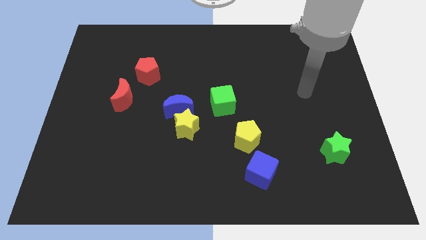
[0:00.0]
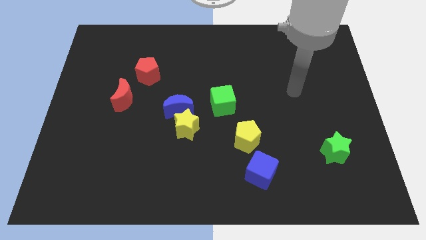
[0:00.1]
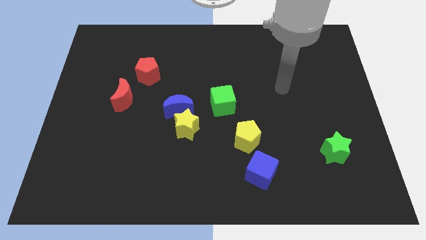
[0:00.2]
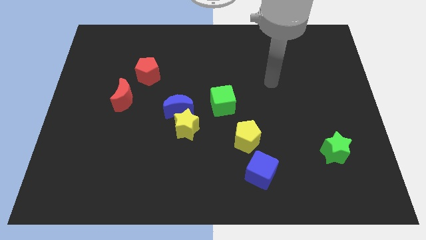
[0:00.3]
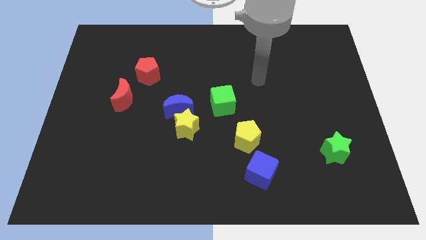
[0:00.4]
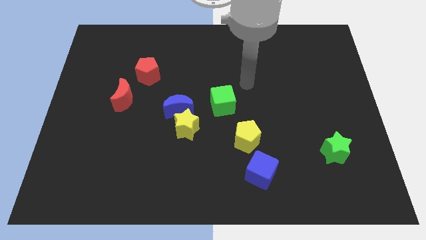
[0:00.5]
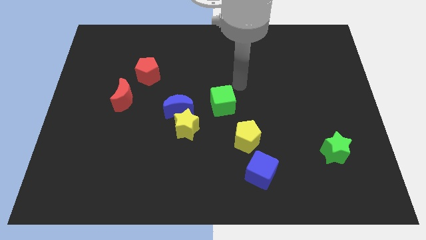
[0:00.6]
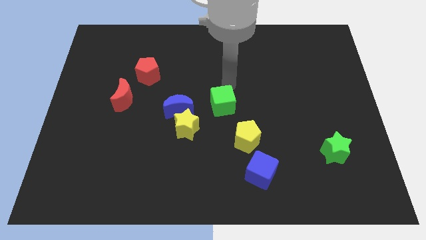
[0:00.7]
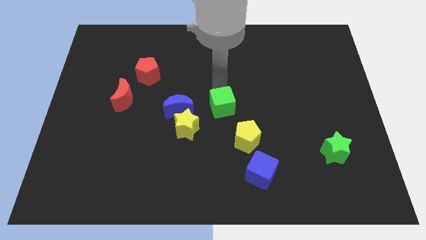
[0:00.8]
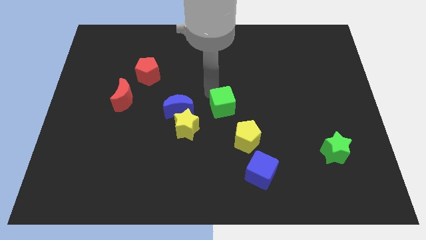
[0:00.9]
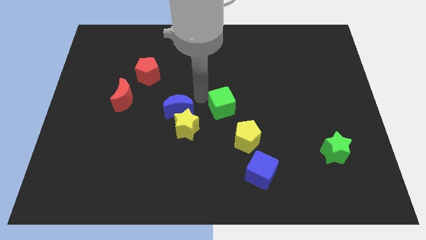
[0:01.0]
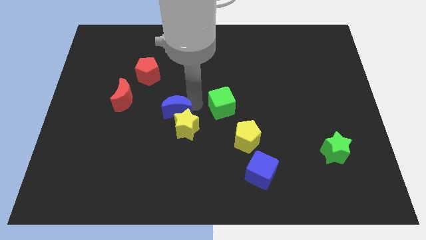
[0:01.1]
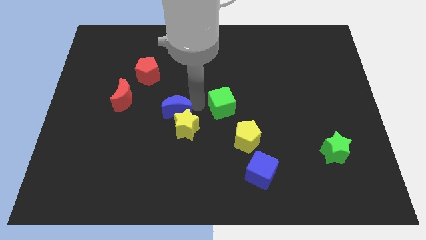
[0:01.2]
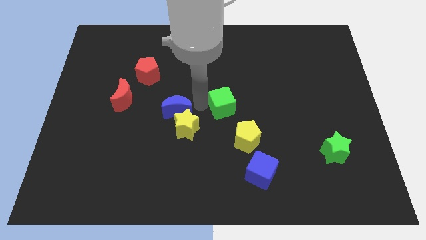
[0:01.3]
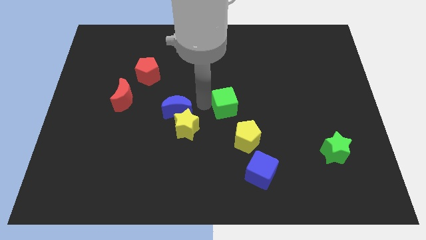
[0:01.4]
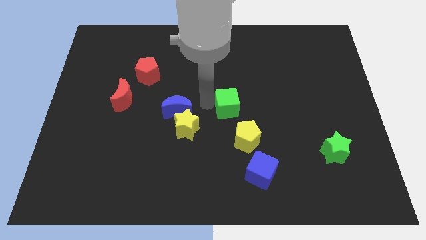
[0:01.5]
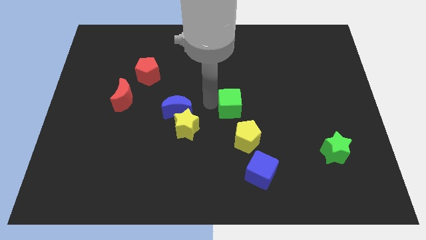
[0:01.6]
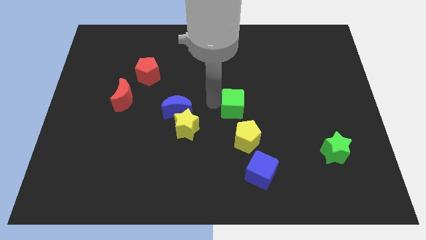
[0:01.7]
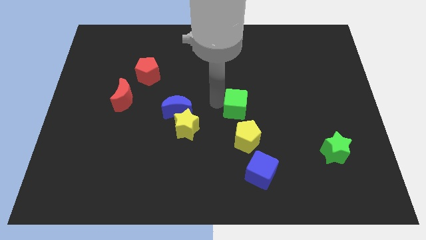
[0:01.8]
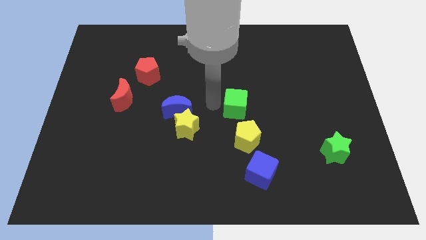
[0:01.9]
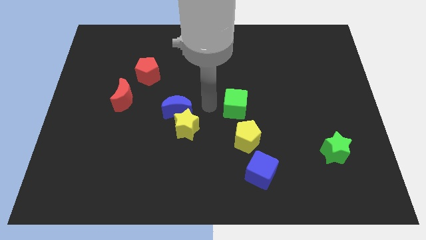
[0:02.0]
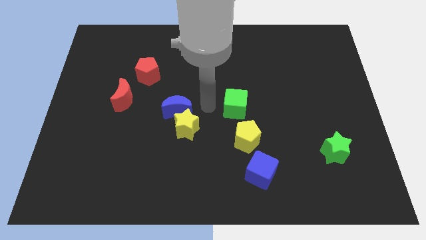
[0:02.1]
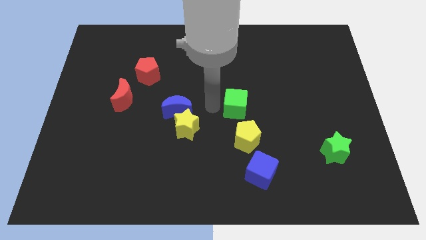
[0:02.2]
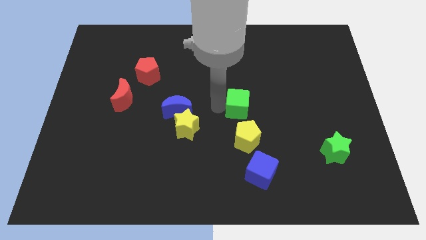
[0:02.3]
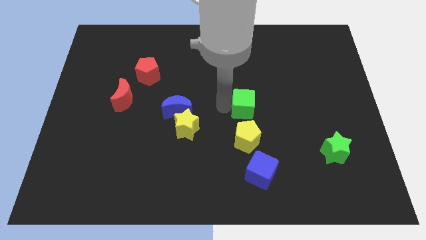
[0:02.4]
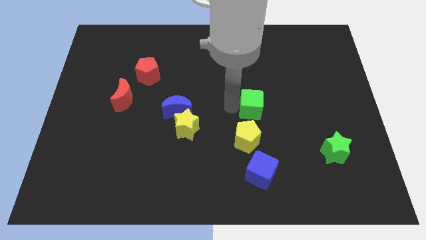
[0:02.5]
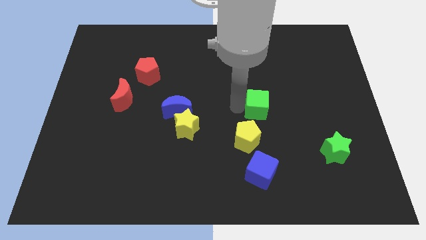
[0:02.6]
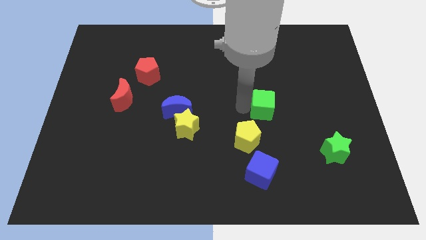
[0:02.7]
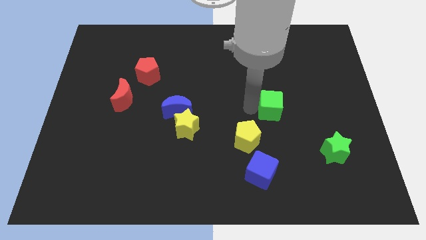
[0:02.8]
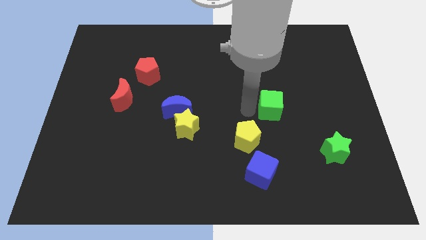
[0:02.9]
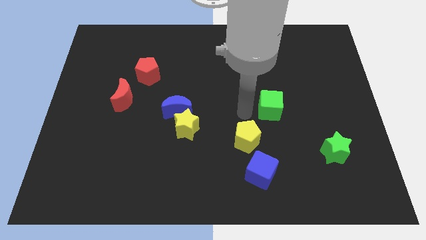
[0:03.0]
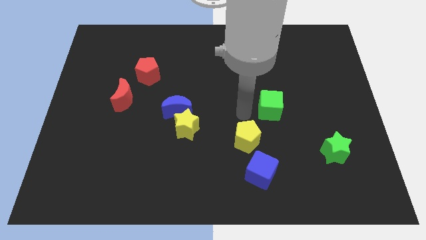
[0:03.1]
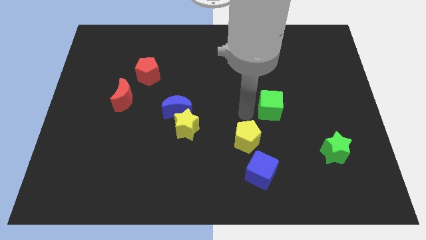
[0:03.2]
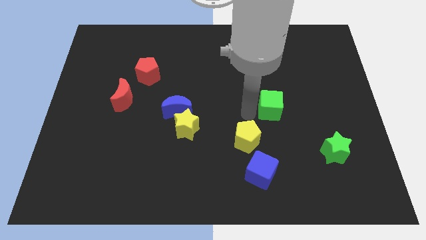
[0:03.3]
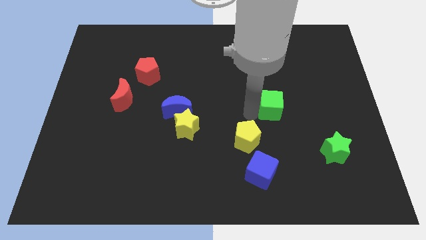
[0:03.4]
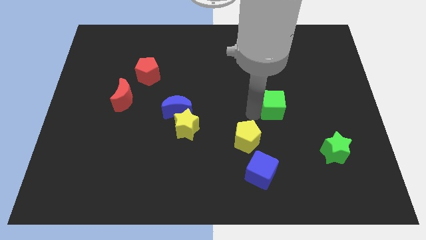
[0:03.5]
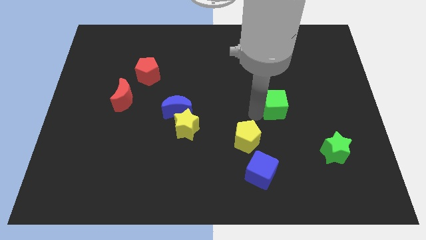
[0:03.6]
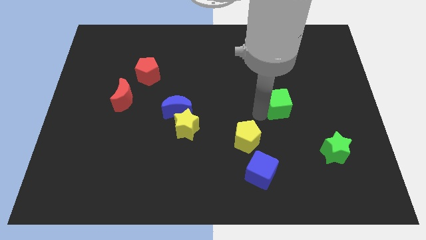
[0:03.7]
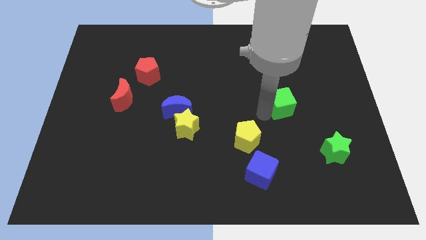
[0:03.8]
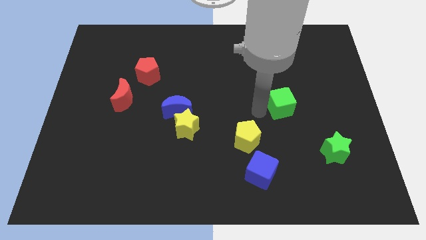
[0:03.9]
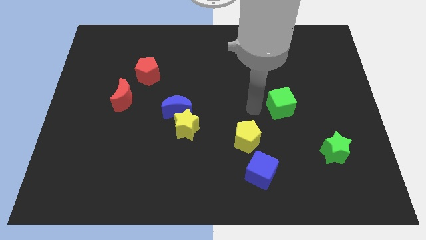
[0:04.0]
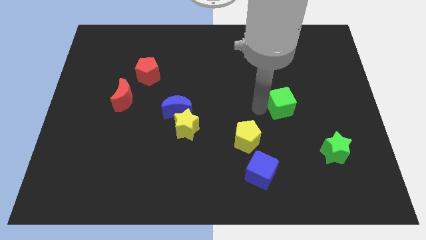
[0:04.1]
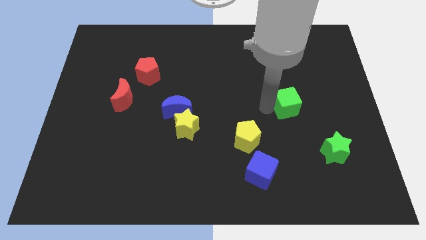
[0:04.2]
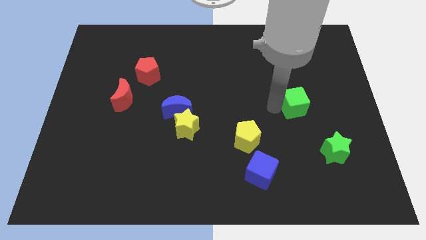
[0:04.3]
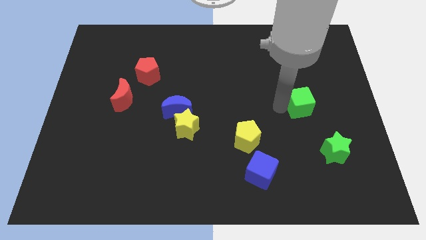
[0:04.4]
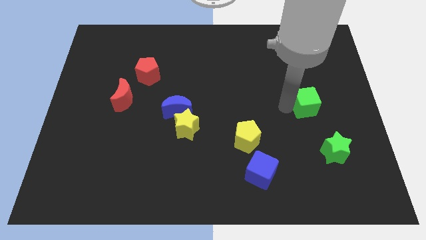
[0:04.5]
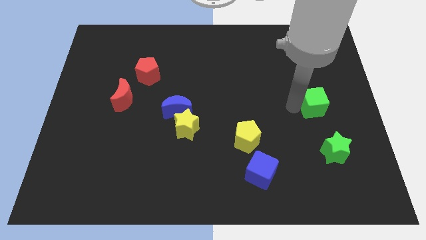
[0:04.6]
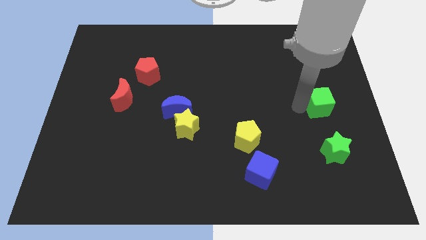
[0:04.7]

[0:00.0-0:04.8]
move the green cube to the center right

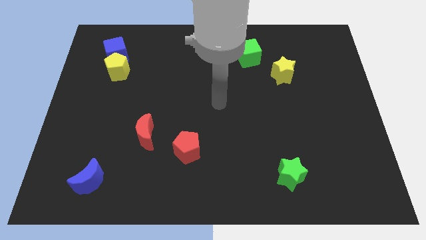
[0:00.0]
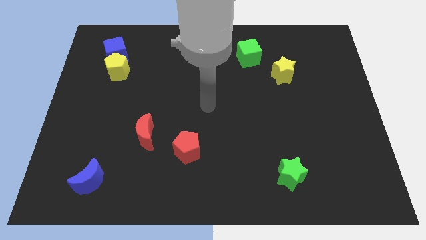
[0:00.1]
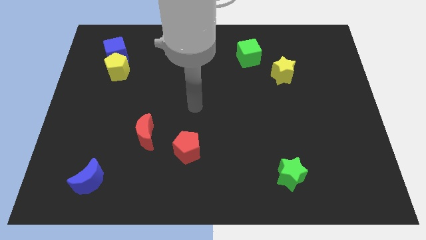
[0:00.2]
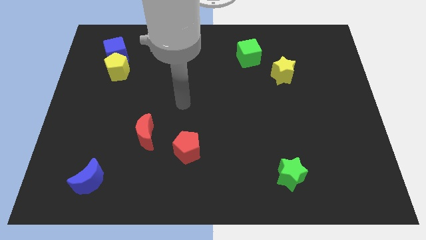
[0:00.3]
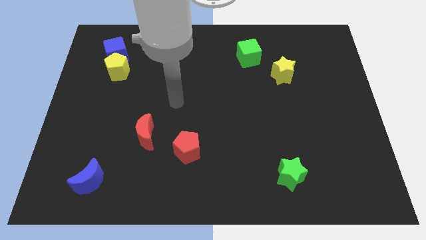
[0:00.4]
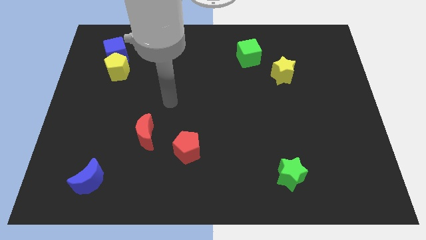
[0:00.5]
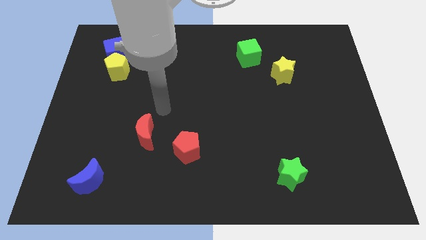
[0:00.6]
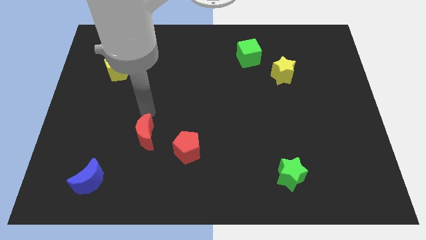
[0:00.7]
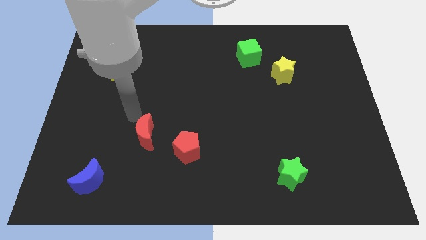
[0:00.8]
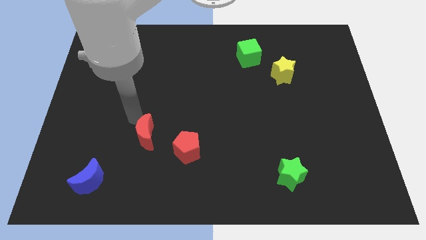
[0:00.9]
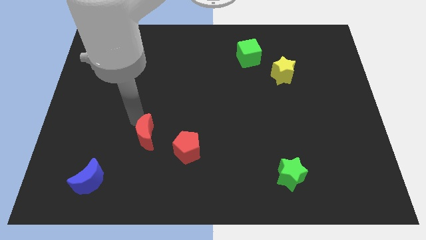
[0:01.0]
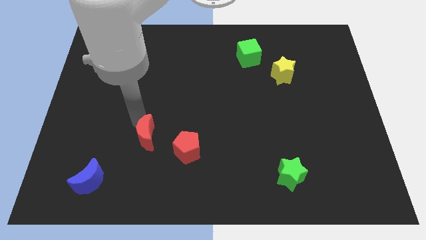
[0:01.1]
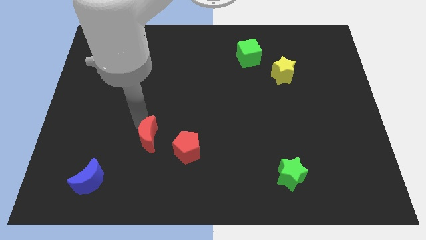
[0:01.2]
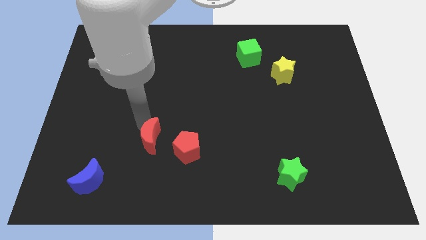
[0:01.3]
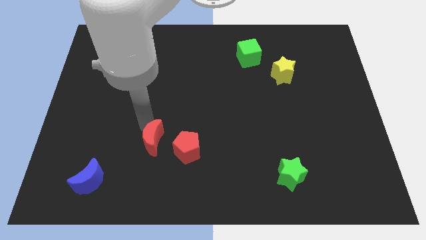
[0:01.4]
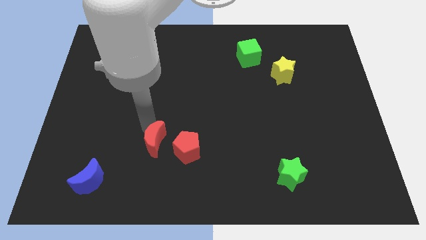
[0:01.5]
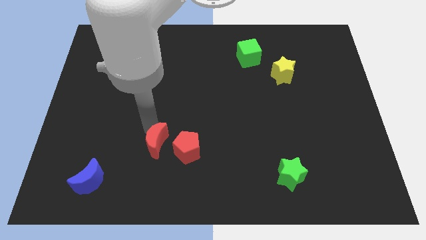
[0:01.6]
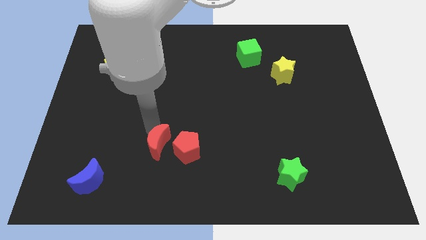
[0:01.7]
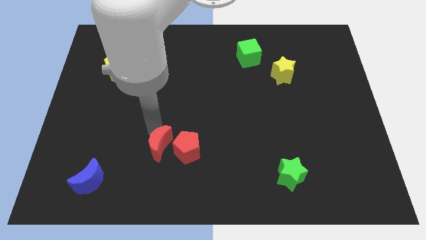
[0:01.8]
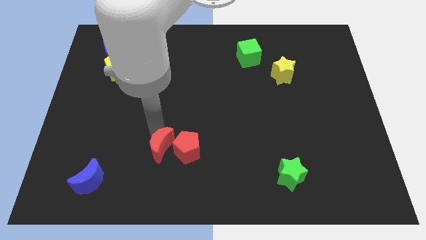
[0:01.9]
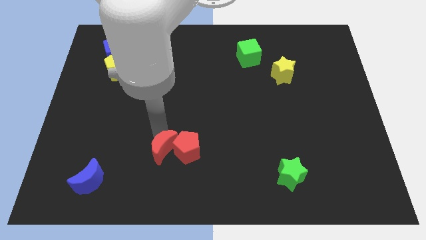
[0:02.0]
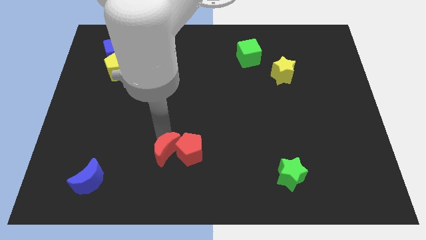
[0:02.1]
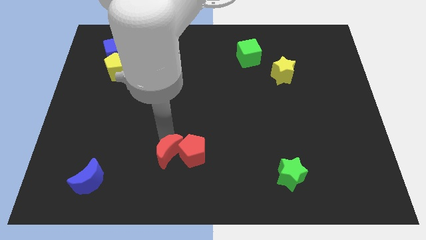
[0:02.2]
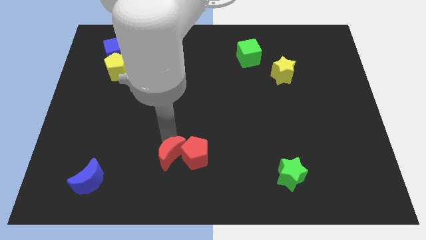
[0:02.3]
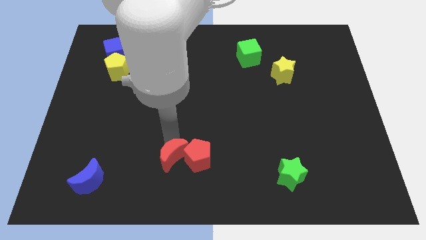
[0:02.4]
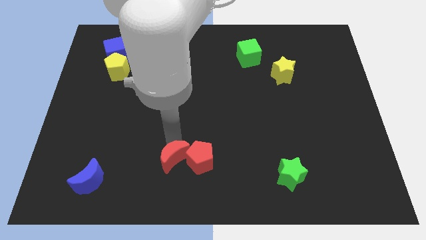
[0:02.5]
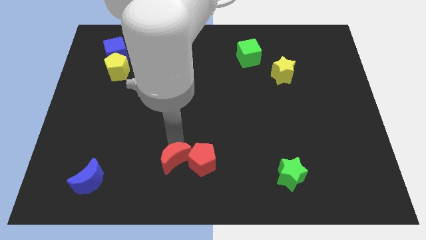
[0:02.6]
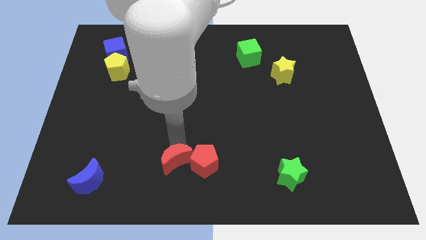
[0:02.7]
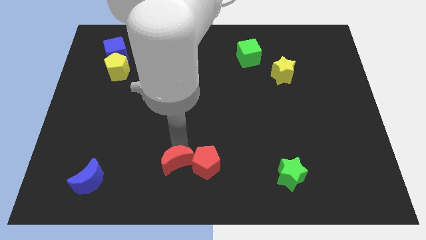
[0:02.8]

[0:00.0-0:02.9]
put the red moon to the bottom
